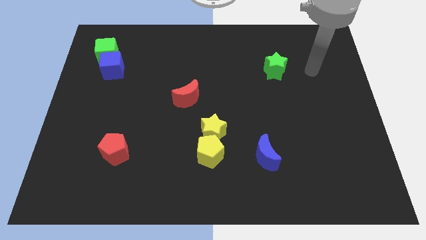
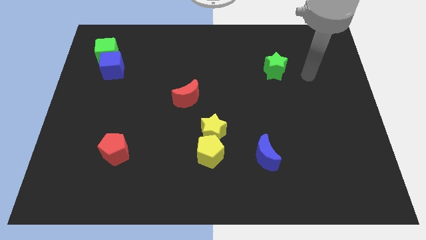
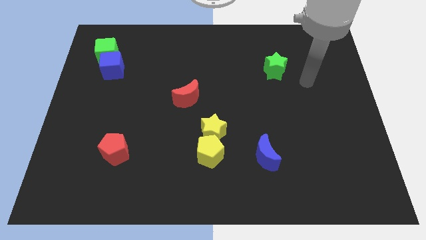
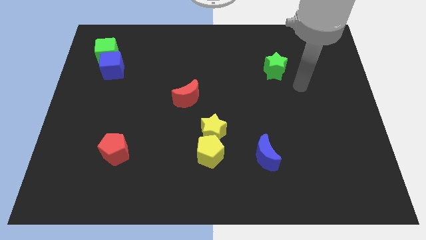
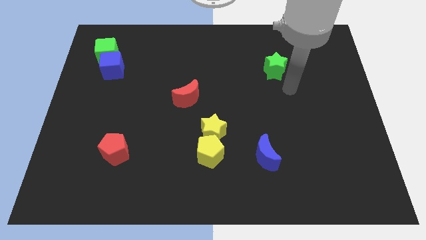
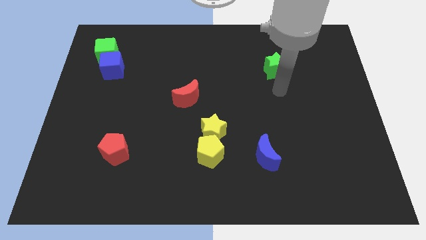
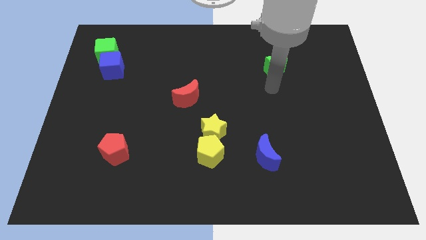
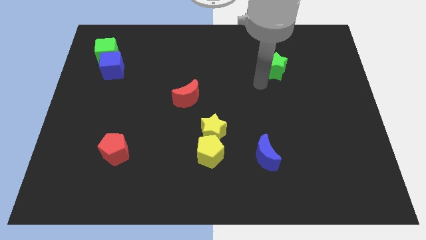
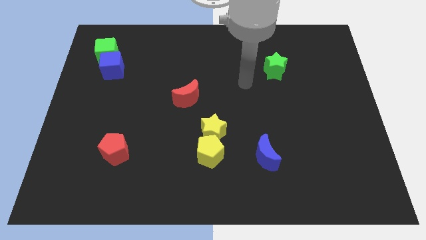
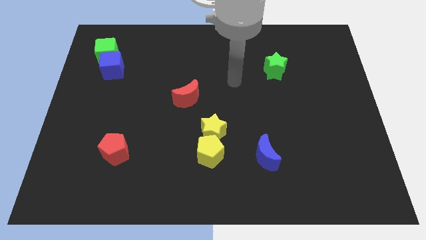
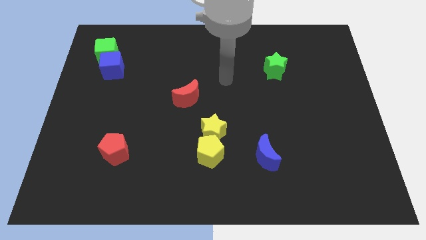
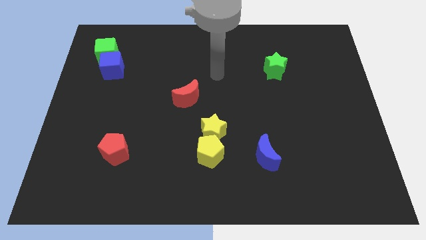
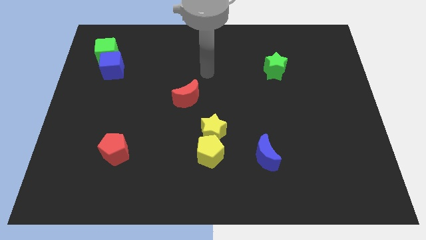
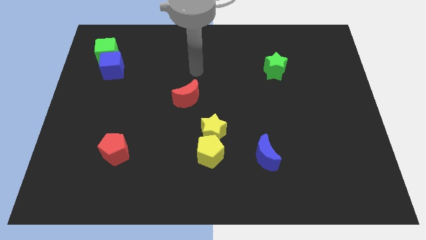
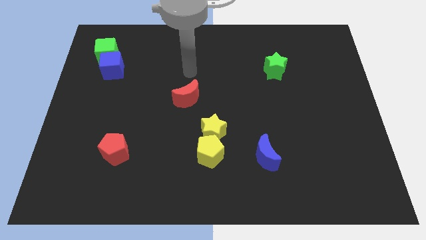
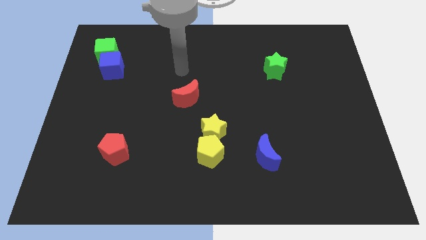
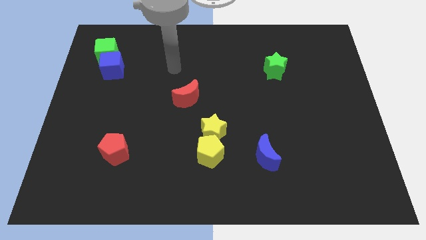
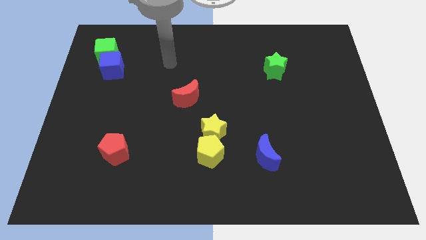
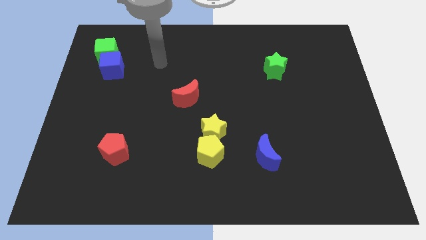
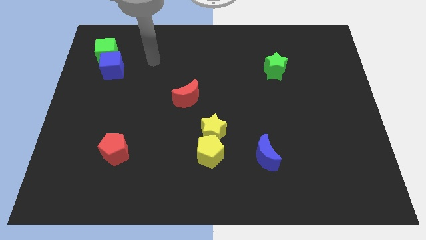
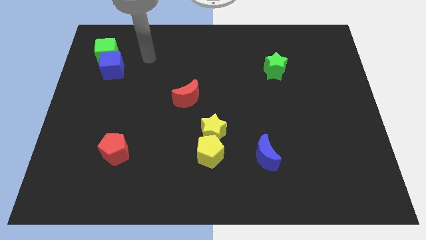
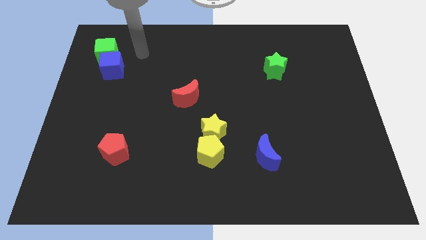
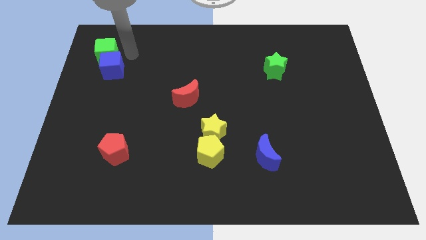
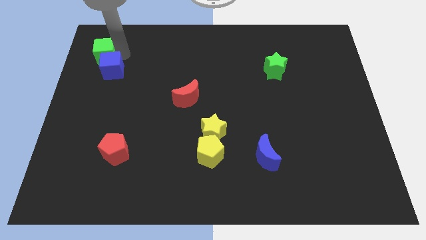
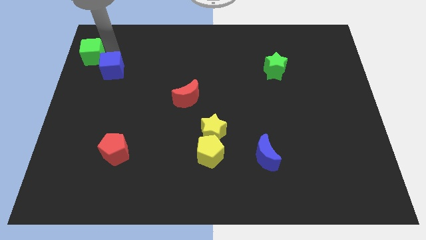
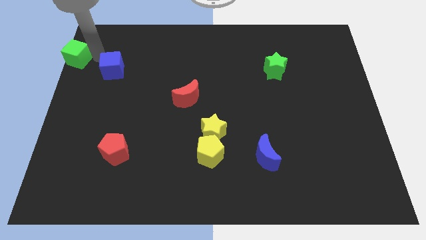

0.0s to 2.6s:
move the blue cube away from the green cube

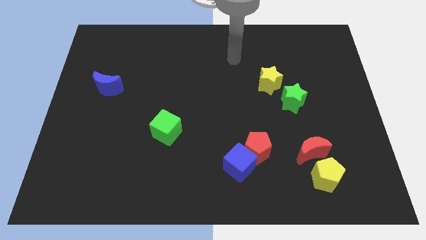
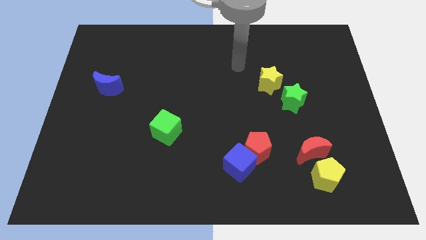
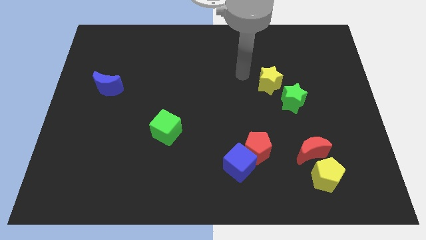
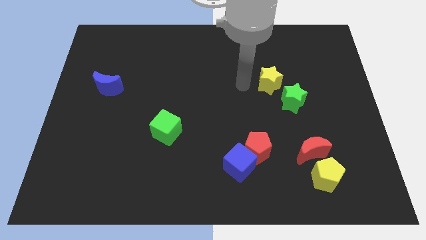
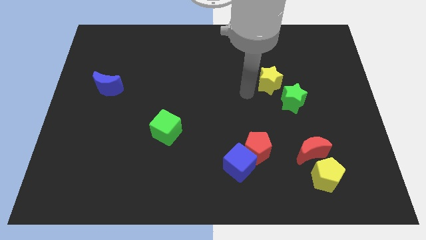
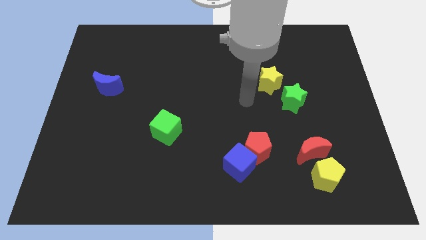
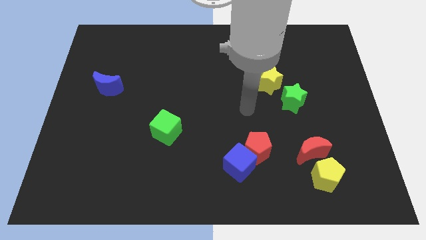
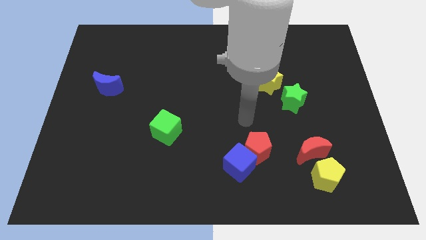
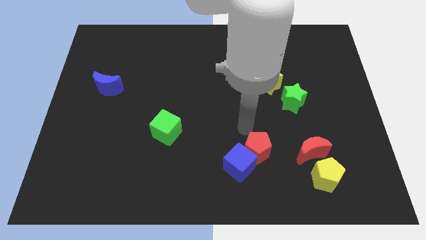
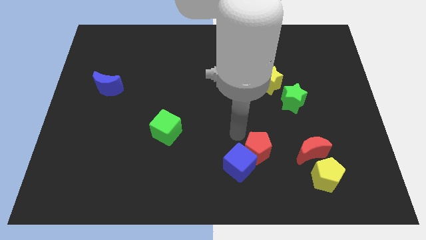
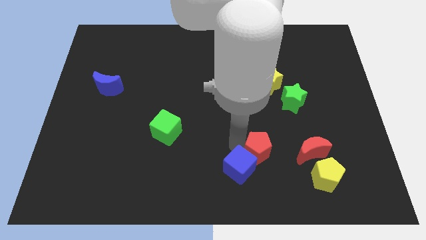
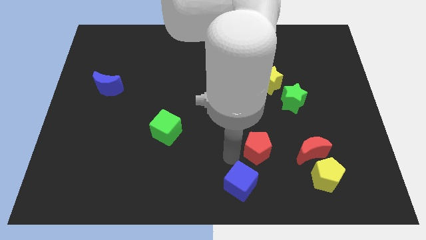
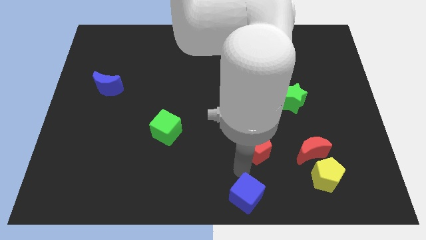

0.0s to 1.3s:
separate the red pentagon from the blue cube

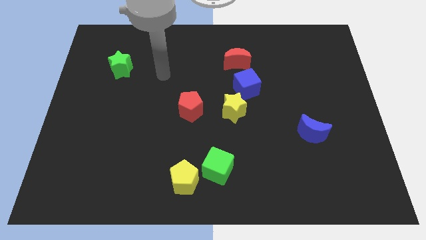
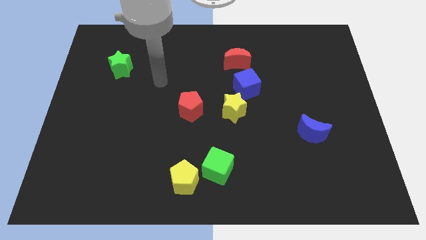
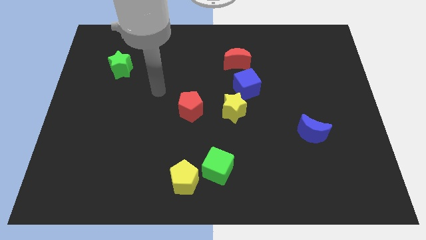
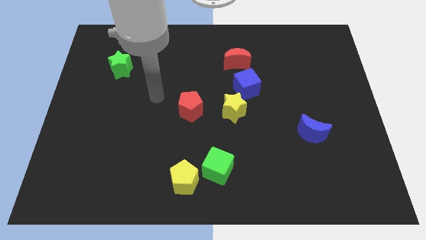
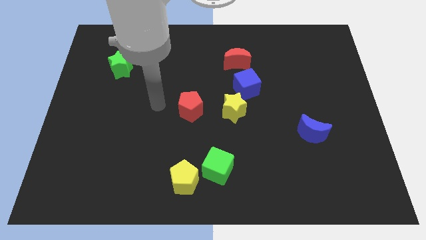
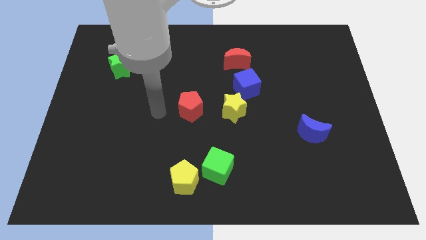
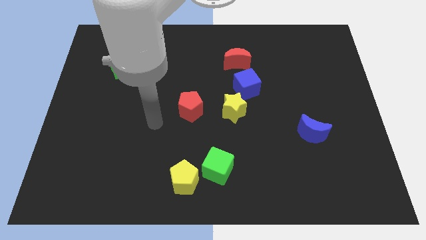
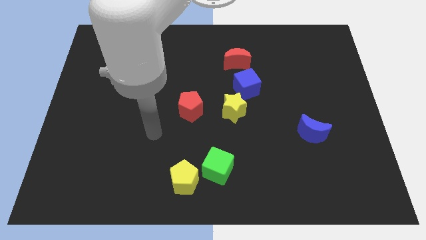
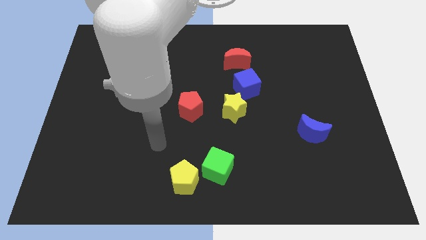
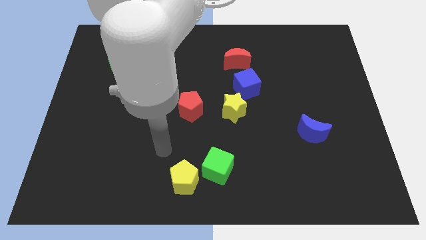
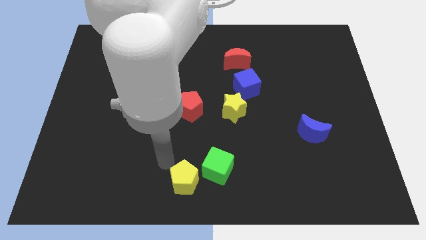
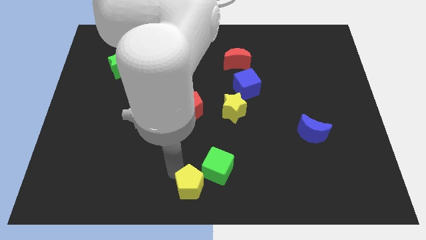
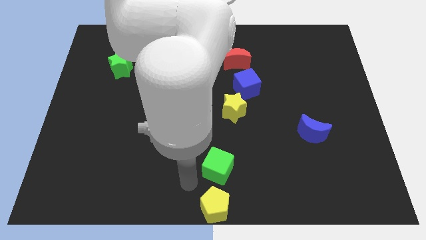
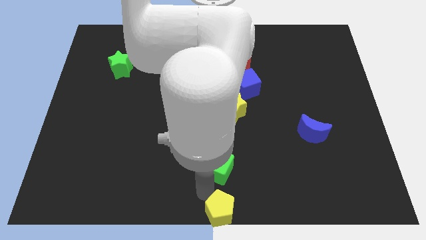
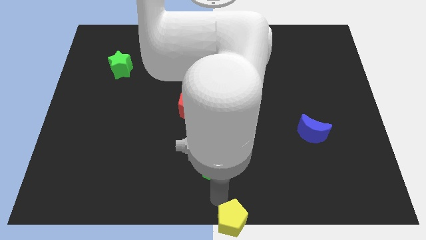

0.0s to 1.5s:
pull the green cube apart from the yellow pentagon

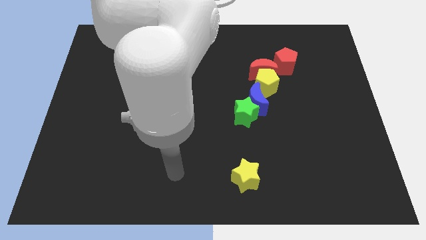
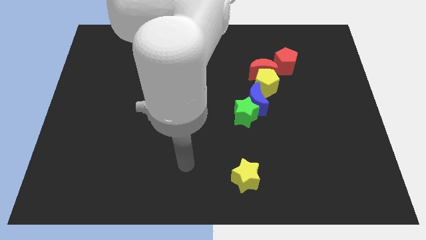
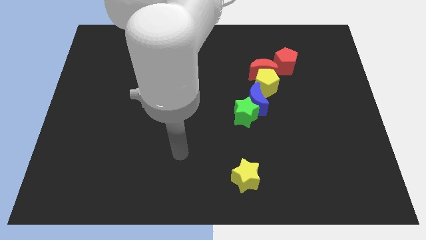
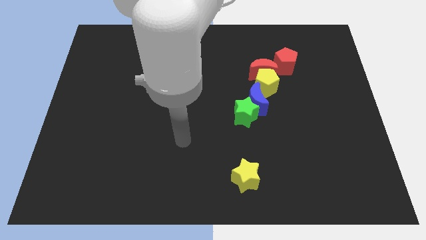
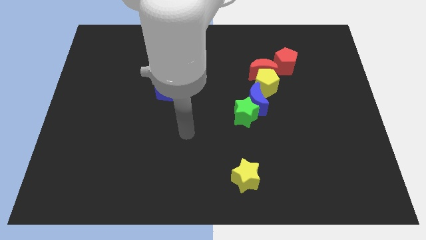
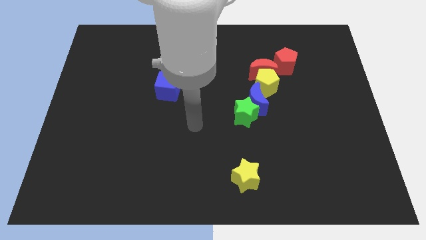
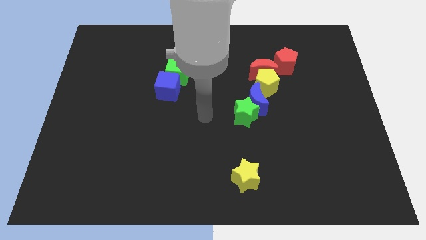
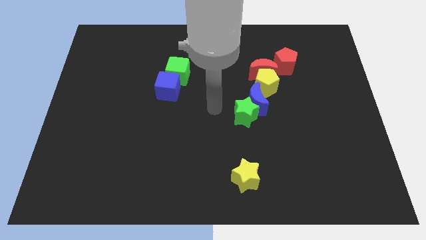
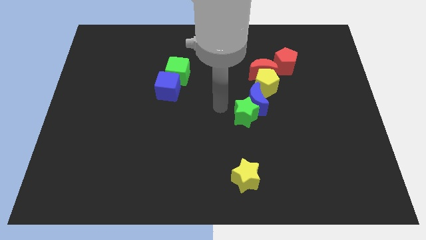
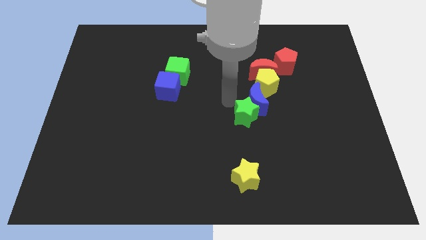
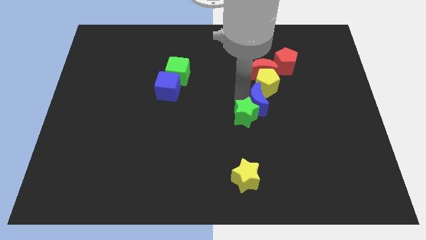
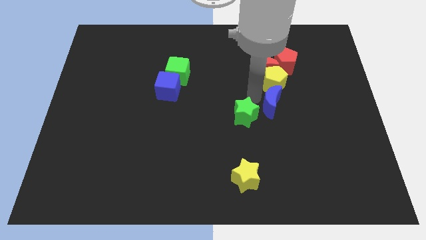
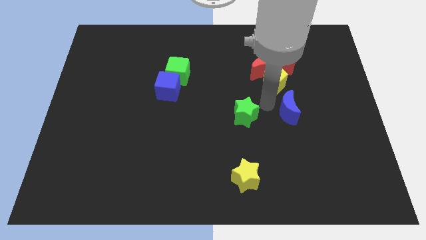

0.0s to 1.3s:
pull the green star apart from the blue moon

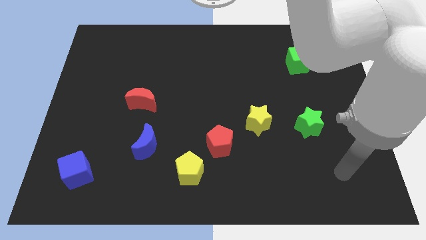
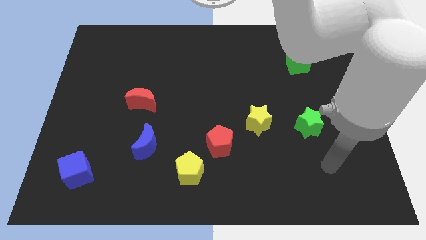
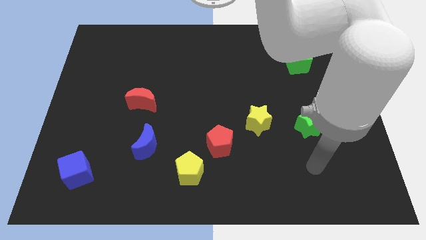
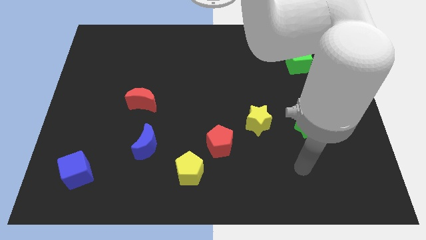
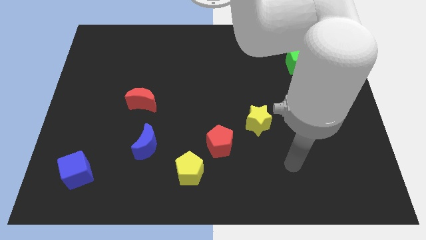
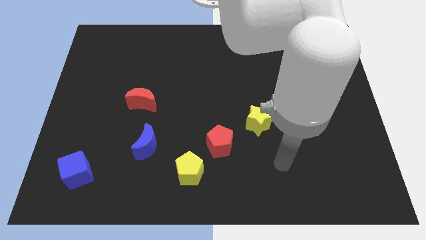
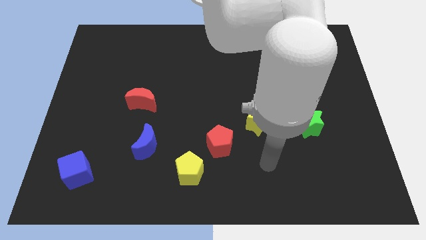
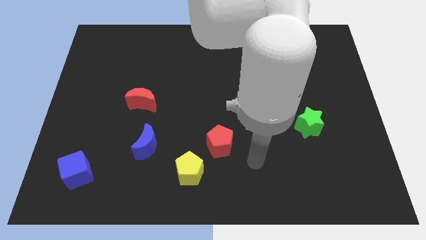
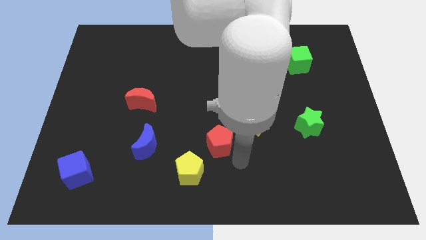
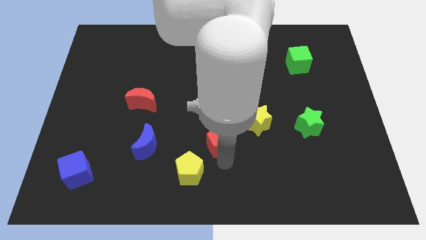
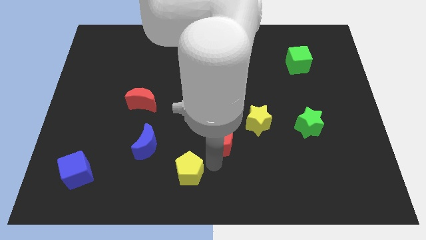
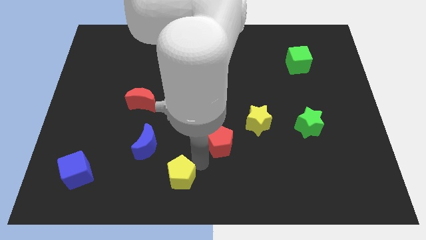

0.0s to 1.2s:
move the red pentagon away from the yellow pentagon

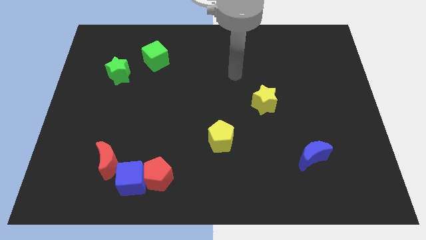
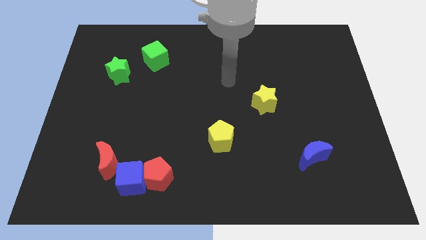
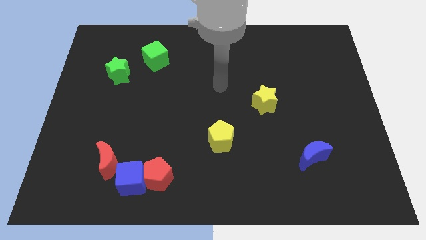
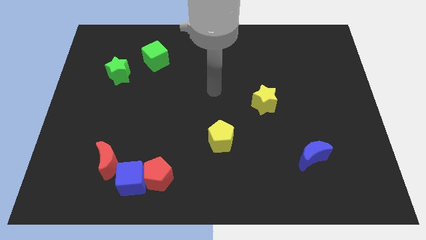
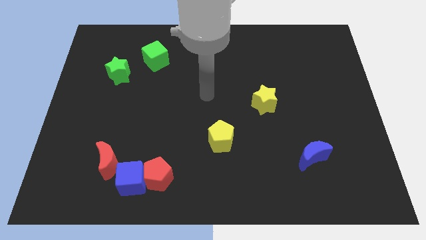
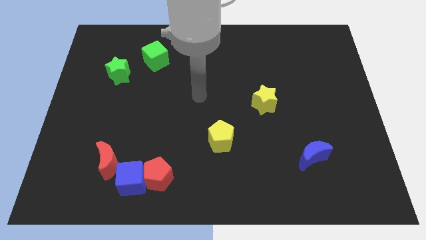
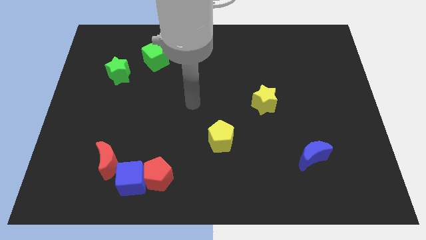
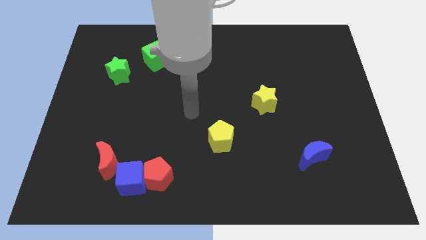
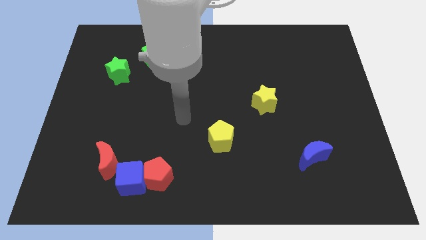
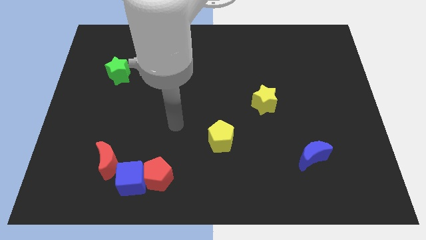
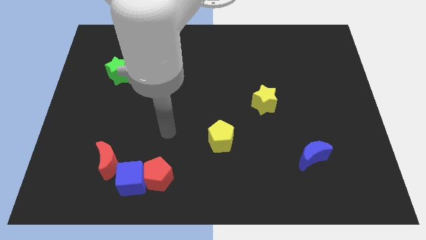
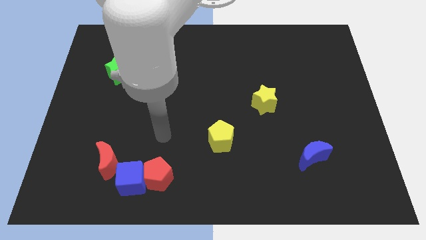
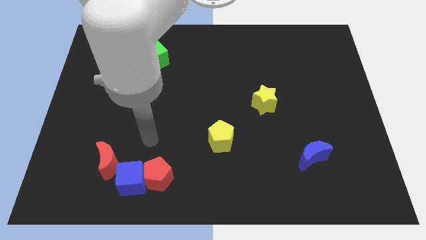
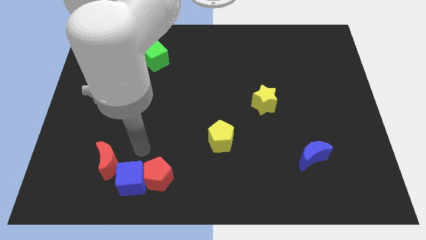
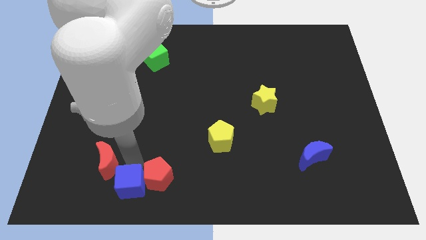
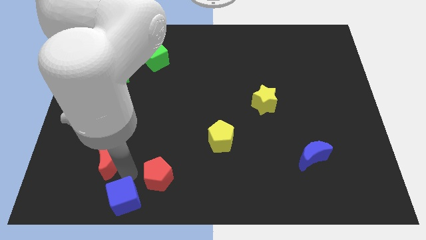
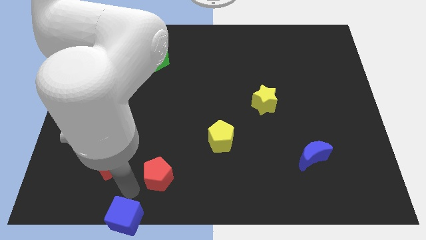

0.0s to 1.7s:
move the red pentagon away from the blue cube
